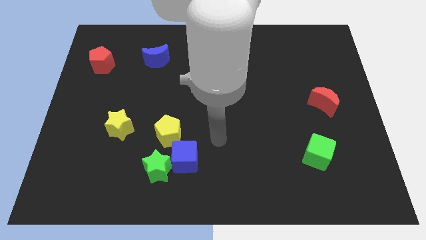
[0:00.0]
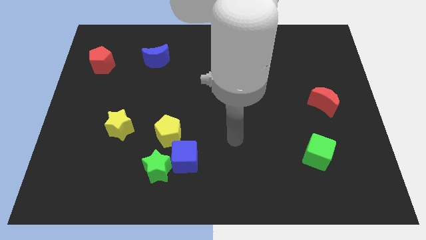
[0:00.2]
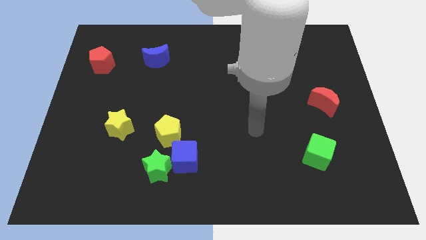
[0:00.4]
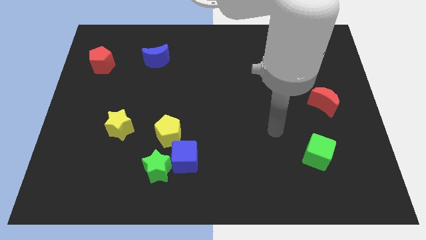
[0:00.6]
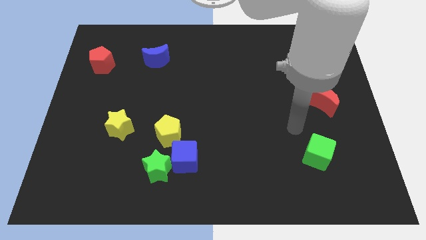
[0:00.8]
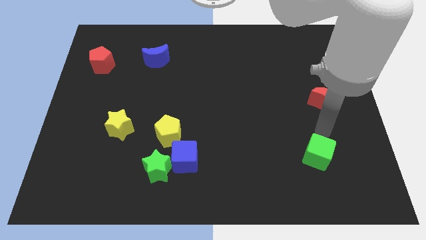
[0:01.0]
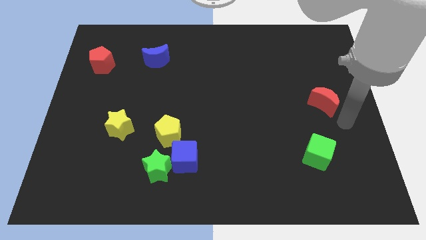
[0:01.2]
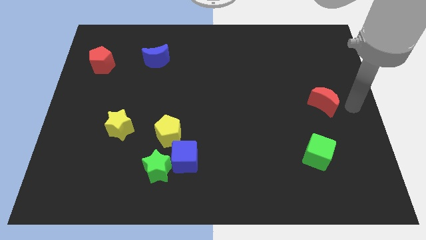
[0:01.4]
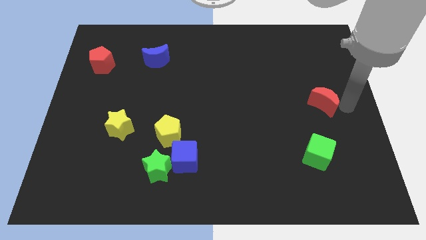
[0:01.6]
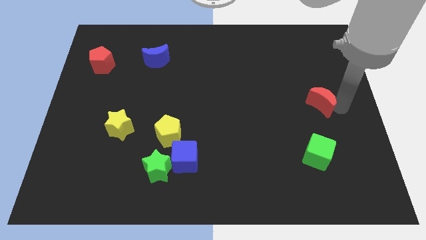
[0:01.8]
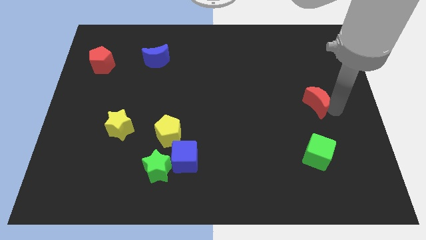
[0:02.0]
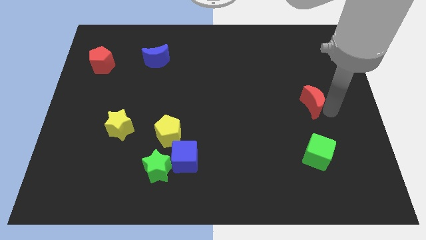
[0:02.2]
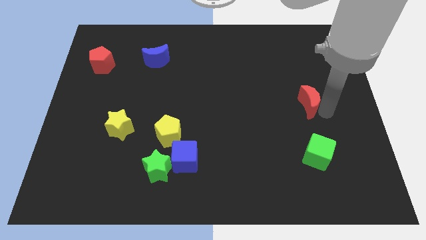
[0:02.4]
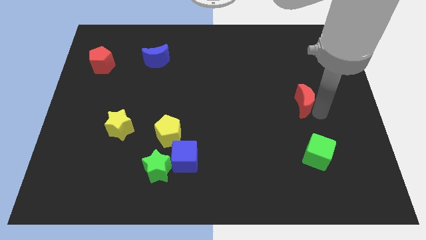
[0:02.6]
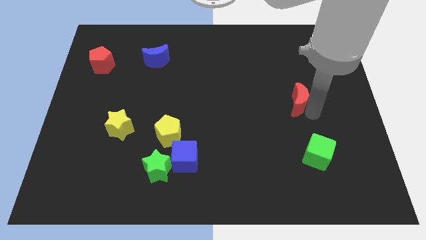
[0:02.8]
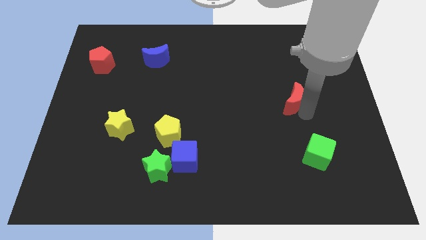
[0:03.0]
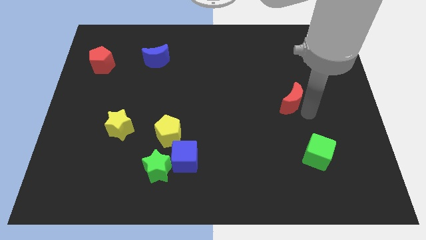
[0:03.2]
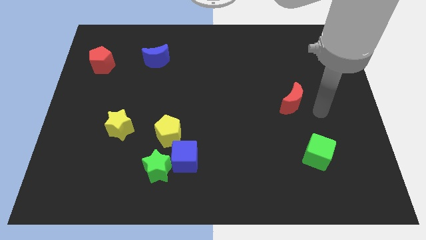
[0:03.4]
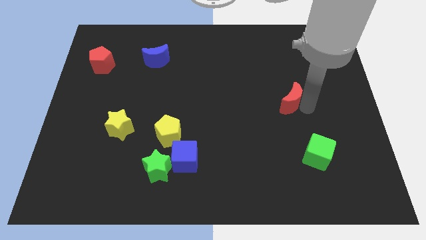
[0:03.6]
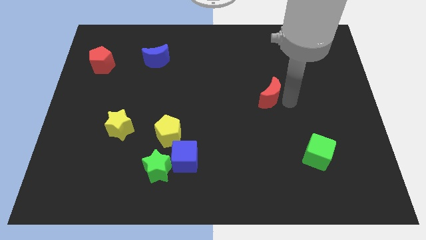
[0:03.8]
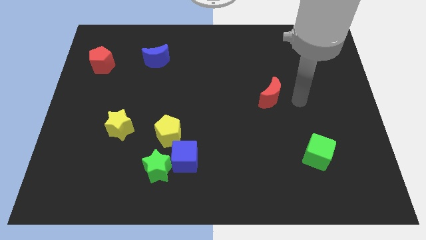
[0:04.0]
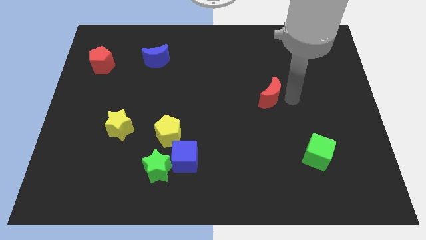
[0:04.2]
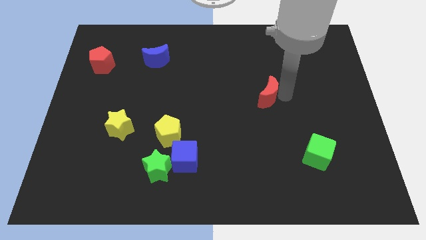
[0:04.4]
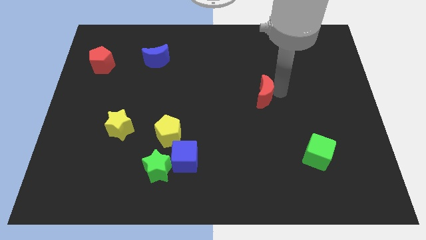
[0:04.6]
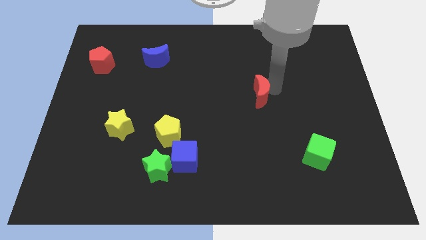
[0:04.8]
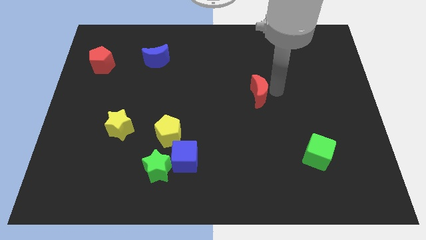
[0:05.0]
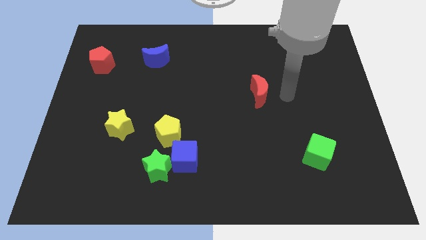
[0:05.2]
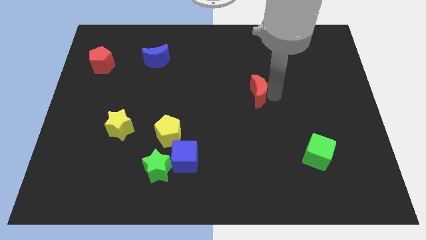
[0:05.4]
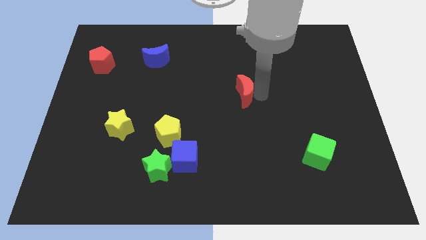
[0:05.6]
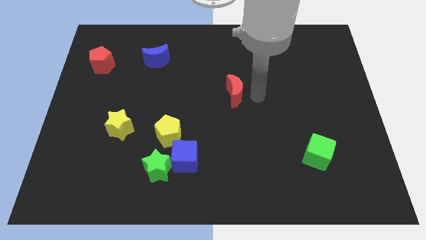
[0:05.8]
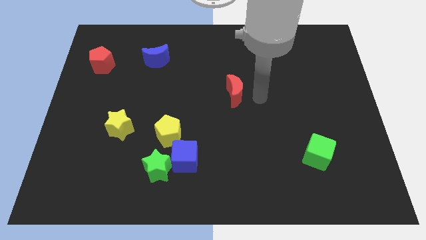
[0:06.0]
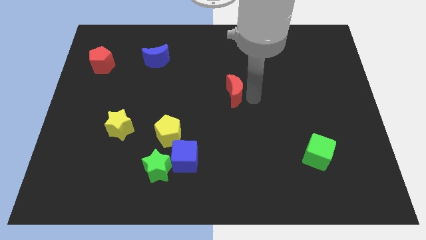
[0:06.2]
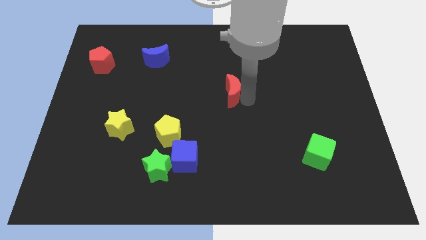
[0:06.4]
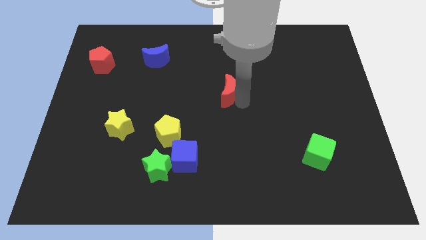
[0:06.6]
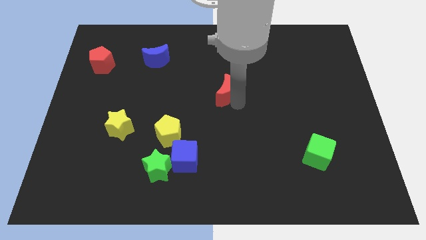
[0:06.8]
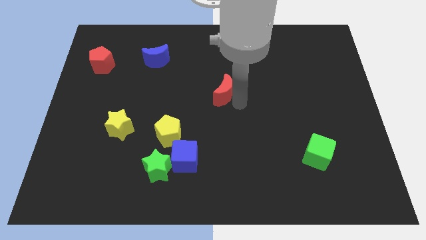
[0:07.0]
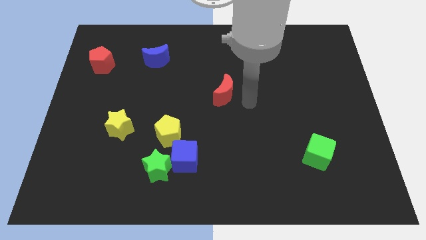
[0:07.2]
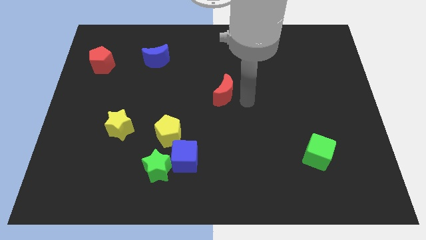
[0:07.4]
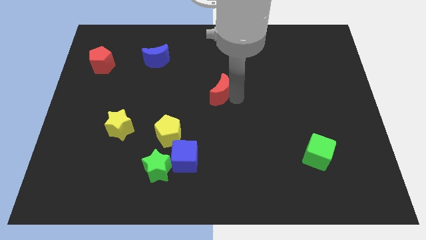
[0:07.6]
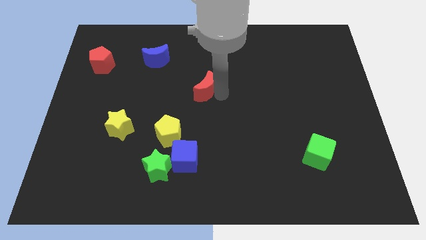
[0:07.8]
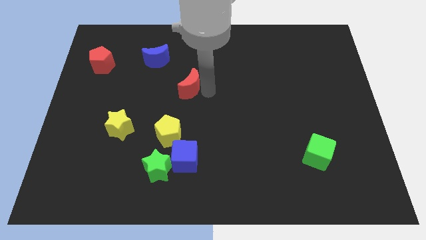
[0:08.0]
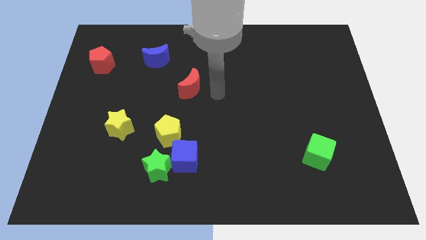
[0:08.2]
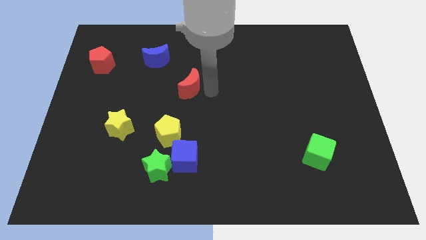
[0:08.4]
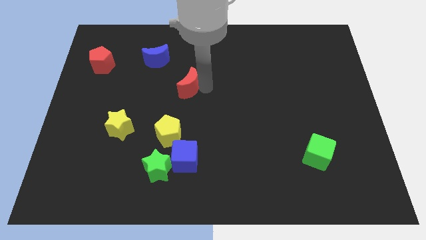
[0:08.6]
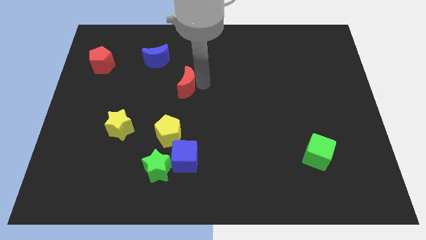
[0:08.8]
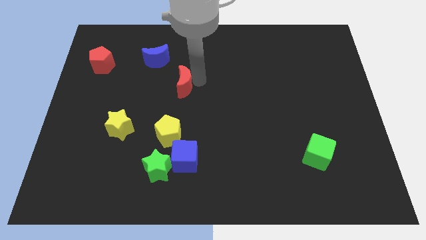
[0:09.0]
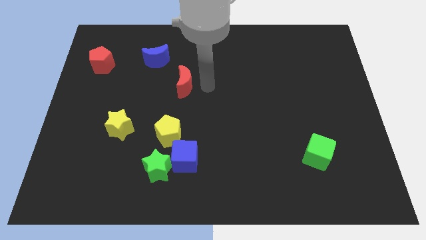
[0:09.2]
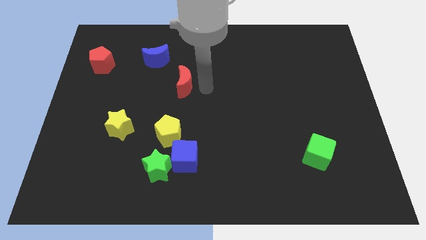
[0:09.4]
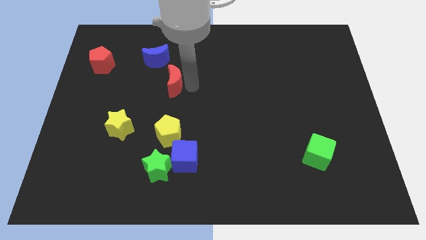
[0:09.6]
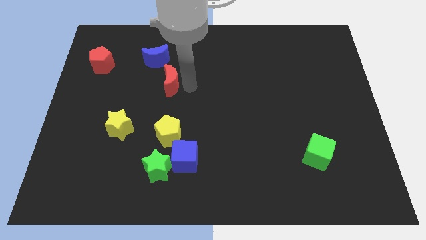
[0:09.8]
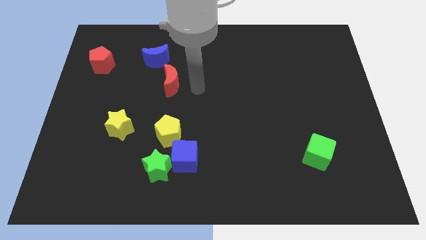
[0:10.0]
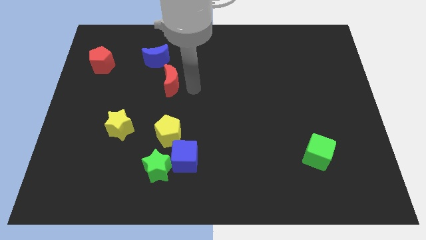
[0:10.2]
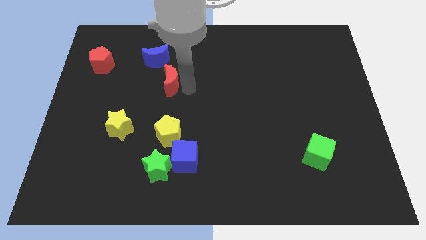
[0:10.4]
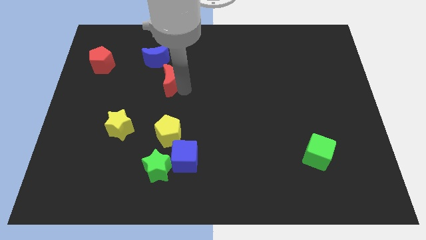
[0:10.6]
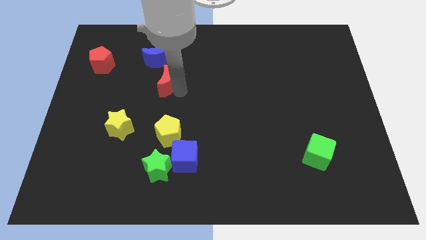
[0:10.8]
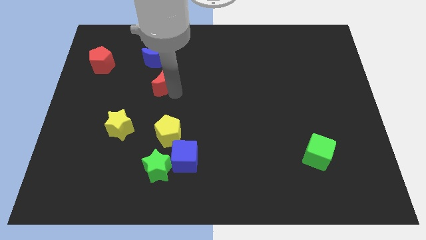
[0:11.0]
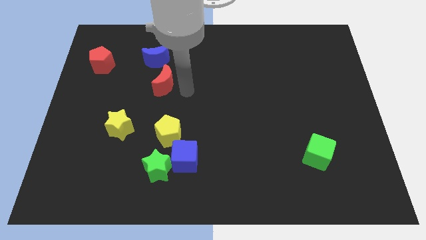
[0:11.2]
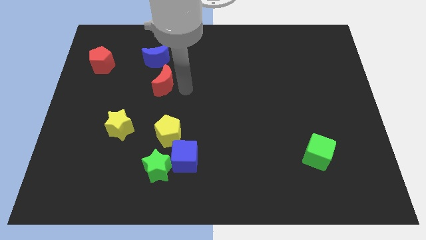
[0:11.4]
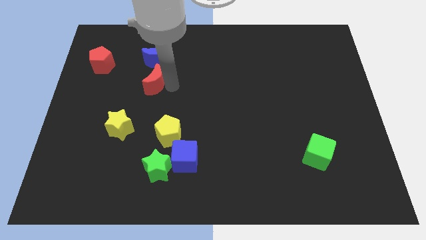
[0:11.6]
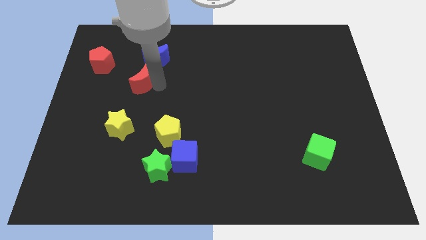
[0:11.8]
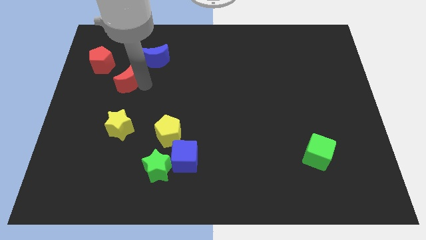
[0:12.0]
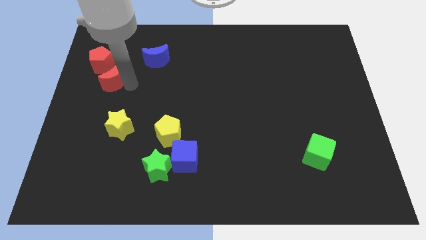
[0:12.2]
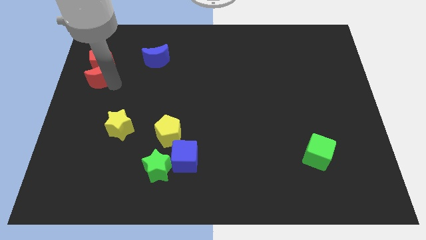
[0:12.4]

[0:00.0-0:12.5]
put the red moon next to the red pentagon
